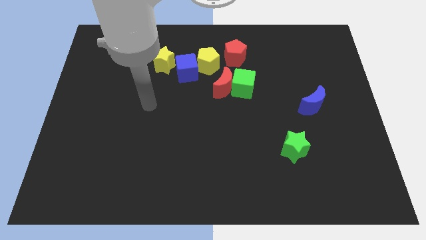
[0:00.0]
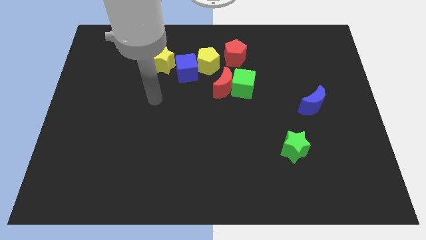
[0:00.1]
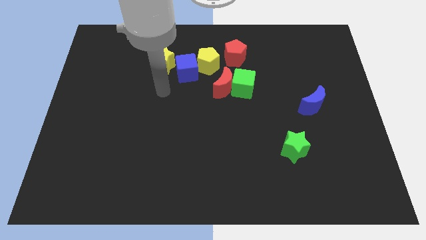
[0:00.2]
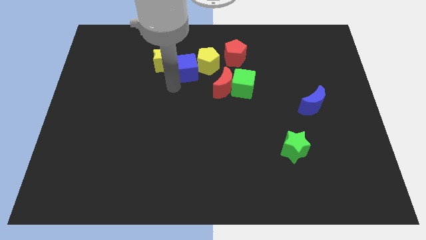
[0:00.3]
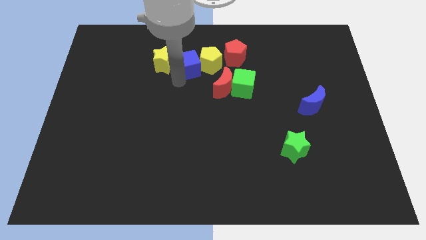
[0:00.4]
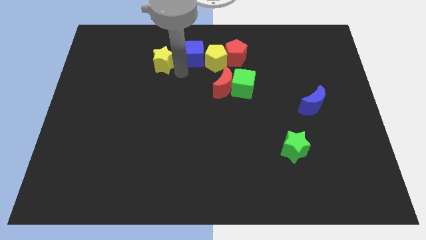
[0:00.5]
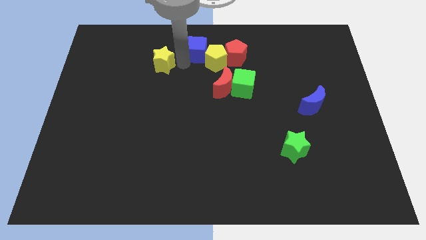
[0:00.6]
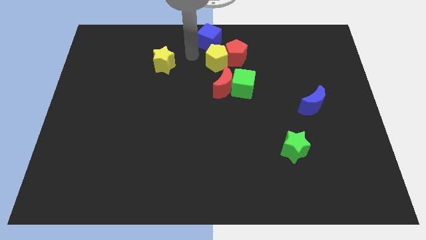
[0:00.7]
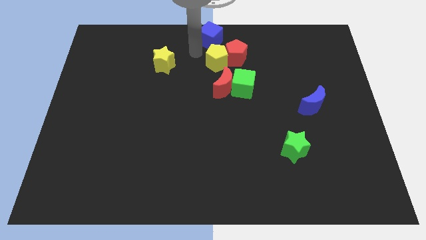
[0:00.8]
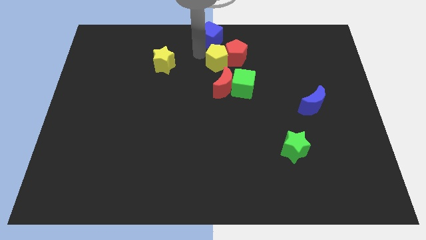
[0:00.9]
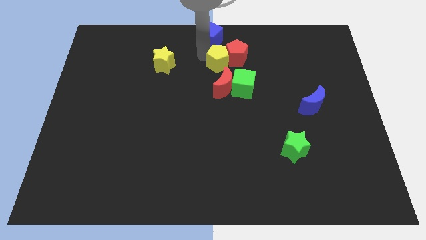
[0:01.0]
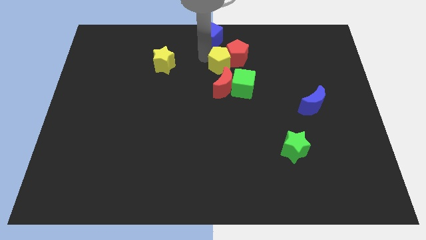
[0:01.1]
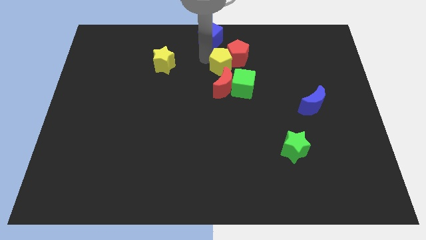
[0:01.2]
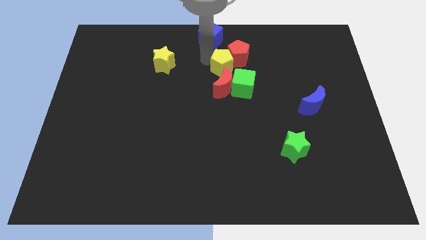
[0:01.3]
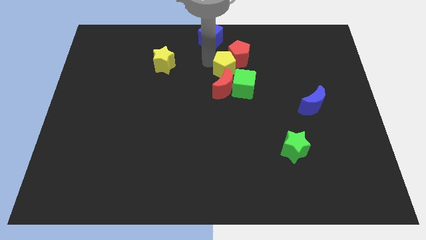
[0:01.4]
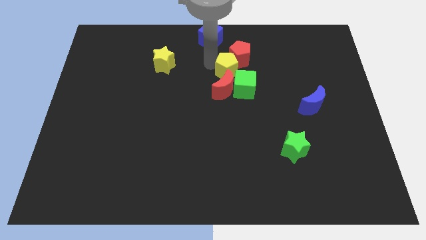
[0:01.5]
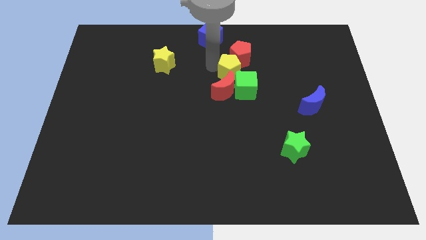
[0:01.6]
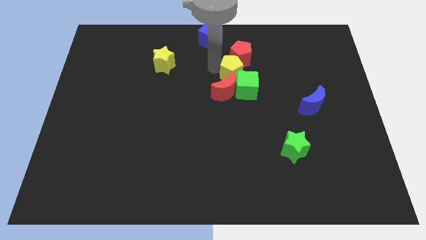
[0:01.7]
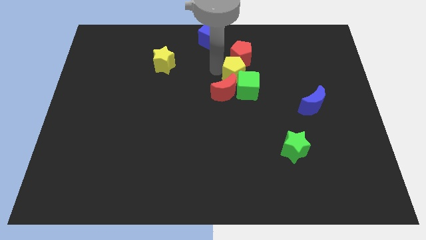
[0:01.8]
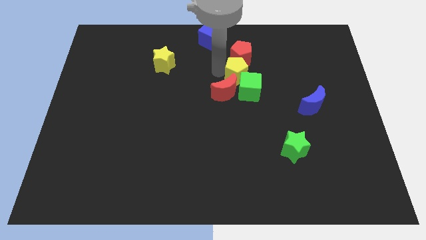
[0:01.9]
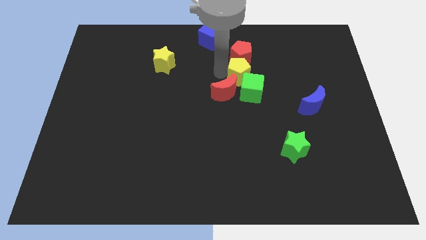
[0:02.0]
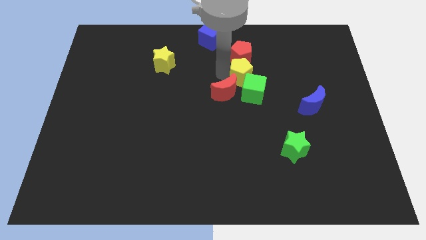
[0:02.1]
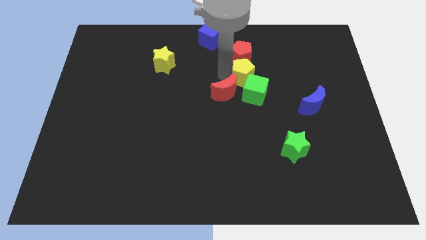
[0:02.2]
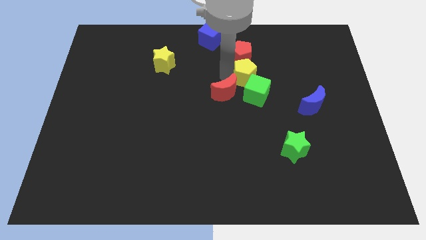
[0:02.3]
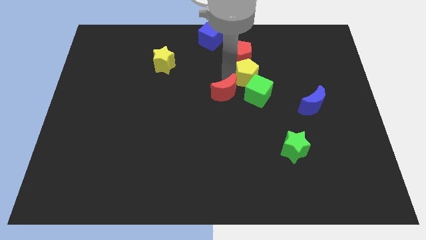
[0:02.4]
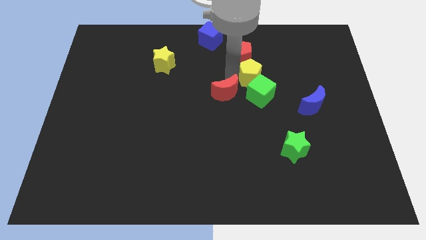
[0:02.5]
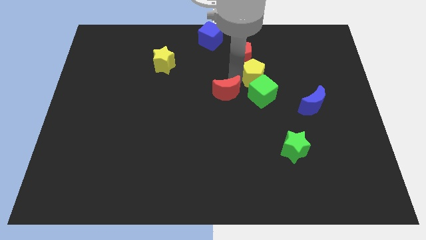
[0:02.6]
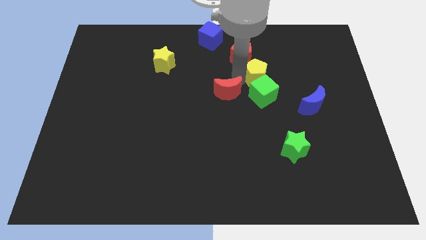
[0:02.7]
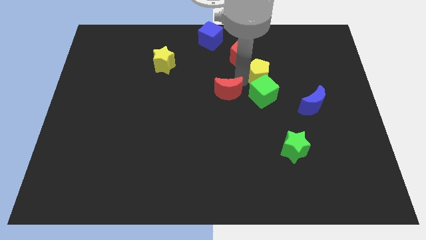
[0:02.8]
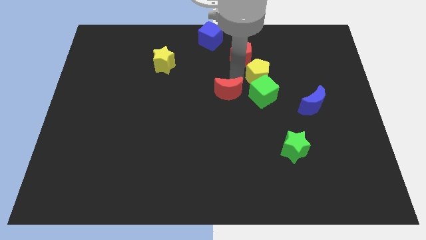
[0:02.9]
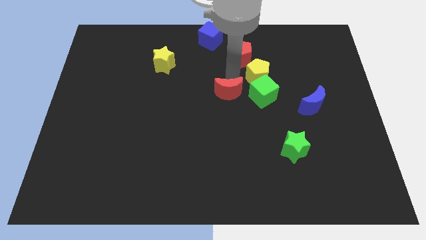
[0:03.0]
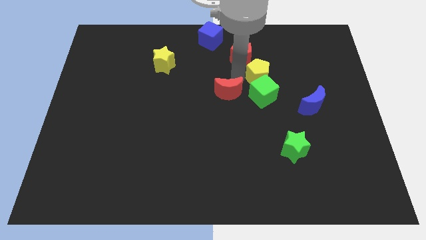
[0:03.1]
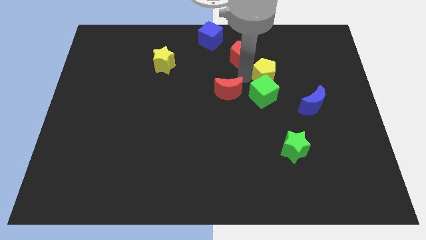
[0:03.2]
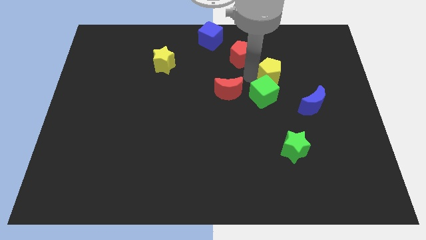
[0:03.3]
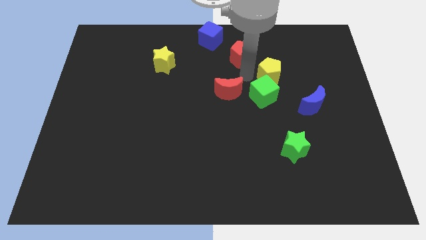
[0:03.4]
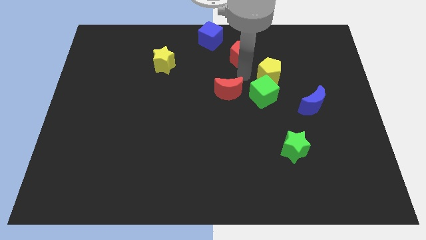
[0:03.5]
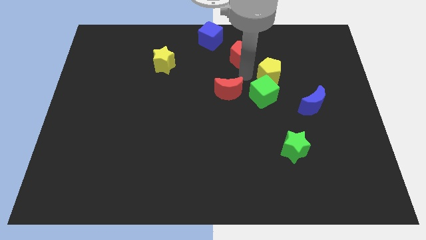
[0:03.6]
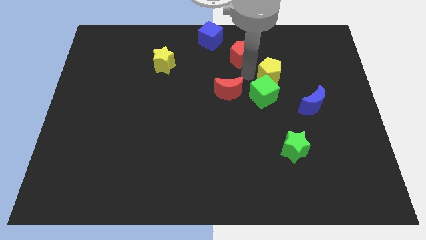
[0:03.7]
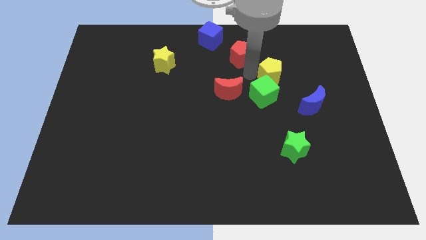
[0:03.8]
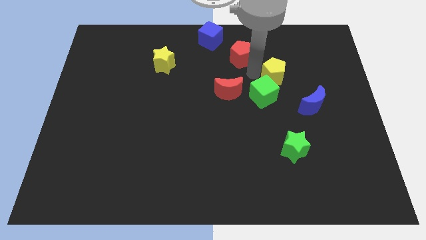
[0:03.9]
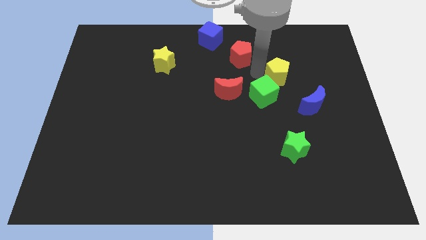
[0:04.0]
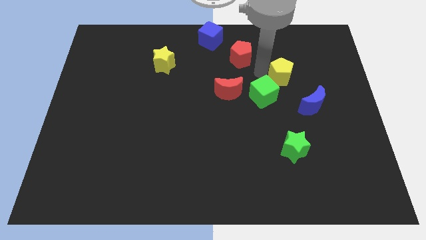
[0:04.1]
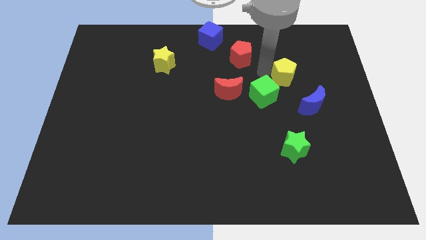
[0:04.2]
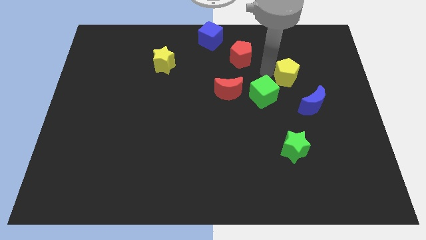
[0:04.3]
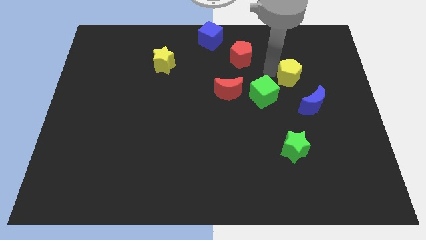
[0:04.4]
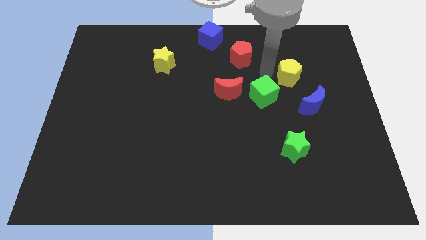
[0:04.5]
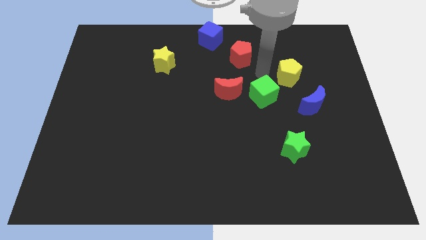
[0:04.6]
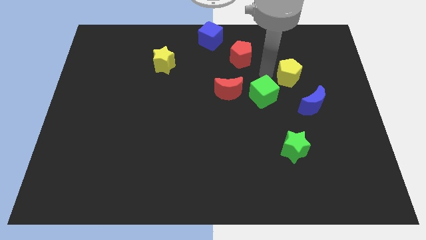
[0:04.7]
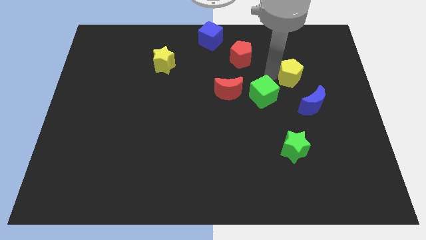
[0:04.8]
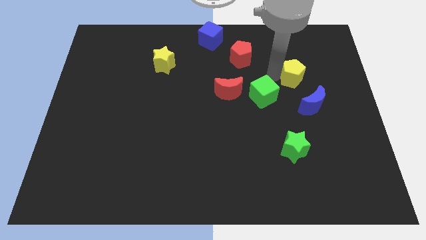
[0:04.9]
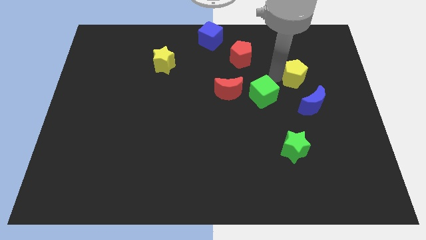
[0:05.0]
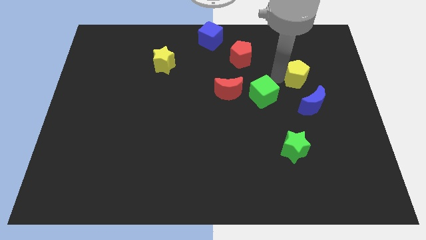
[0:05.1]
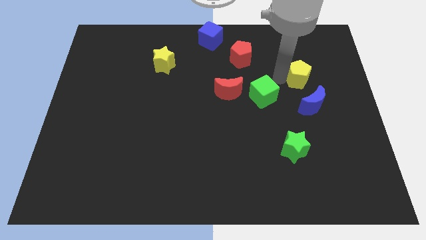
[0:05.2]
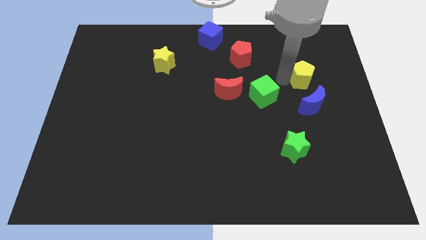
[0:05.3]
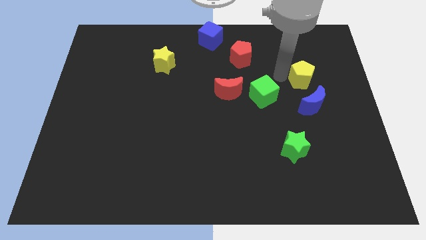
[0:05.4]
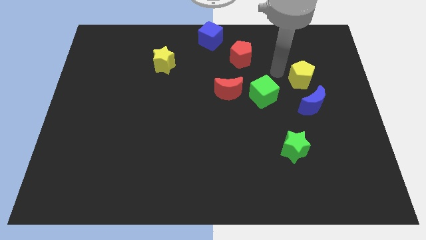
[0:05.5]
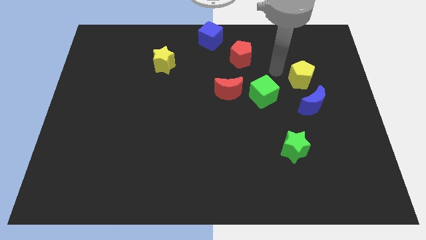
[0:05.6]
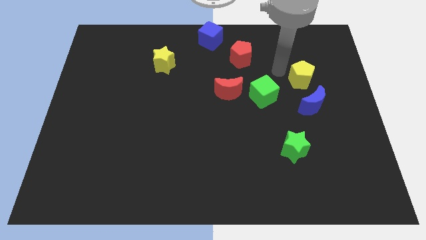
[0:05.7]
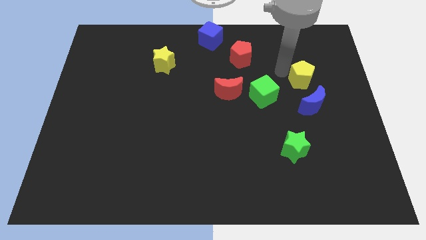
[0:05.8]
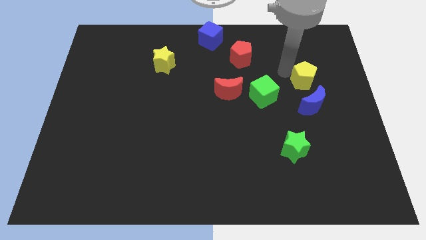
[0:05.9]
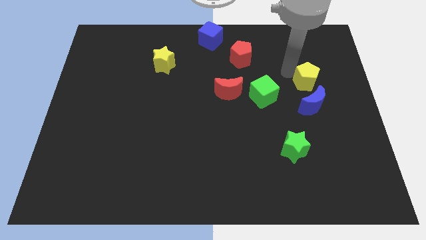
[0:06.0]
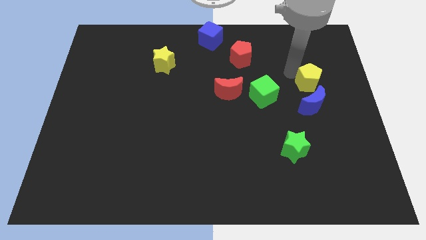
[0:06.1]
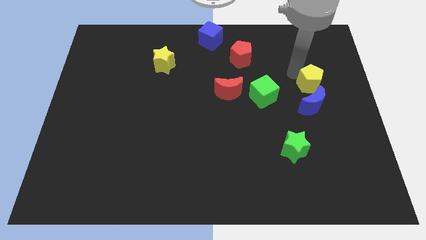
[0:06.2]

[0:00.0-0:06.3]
move the yellow pentagon to the top right side of the blue moon
